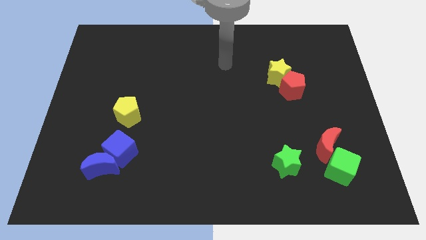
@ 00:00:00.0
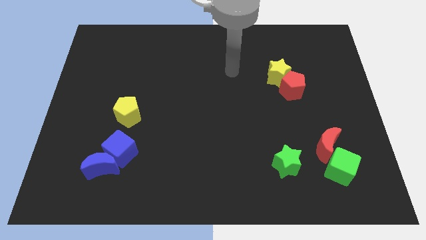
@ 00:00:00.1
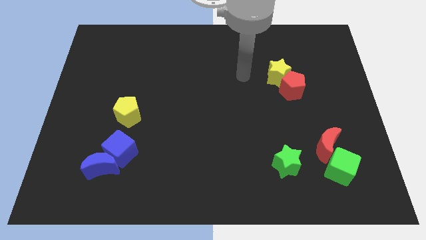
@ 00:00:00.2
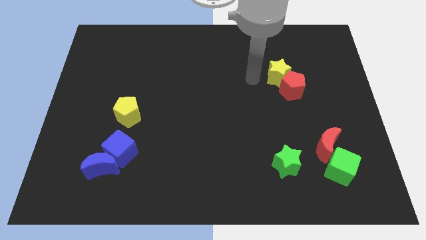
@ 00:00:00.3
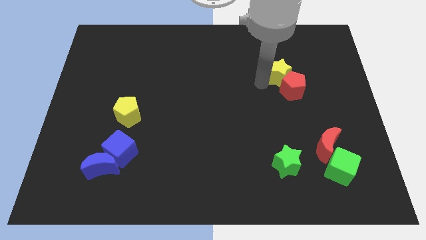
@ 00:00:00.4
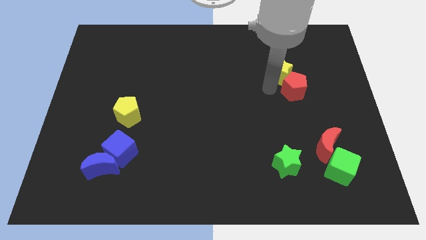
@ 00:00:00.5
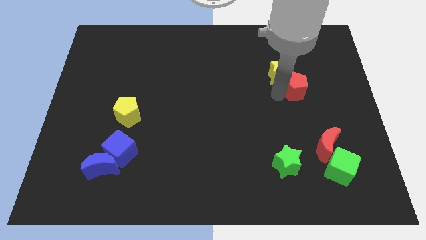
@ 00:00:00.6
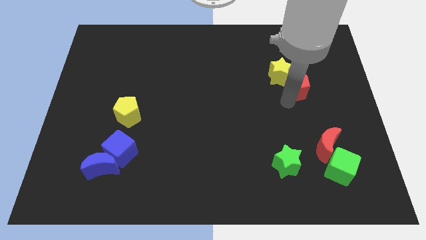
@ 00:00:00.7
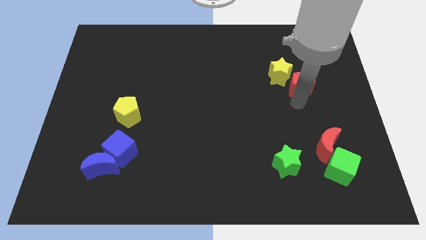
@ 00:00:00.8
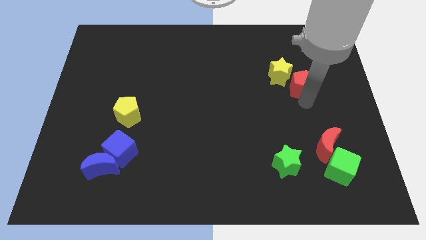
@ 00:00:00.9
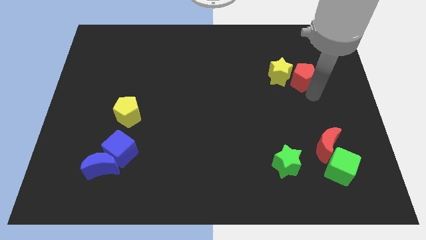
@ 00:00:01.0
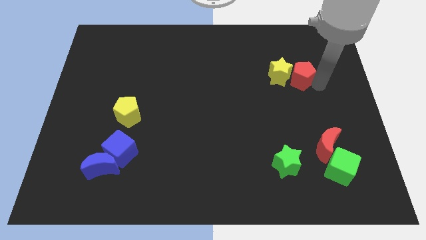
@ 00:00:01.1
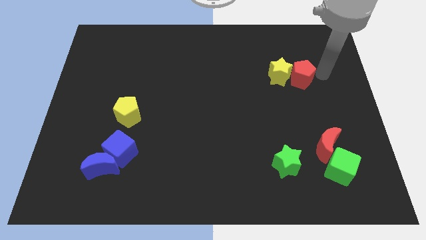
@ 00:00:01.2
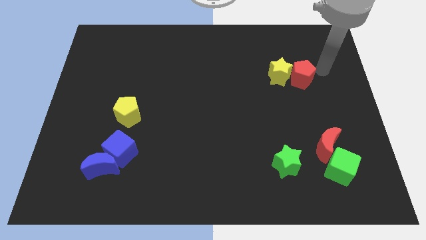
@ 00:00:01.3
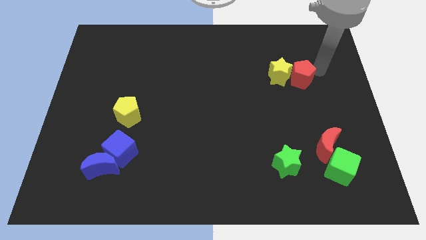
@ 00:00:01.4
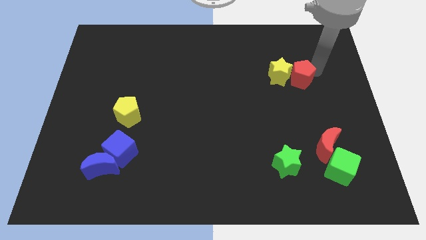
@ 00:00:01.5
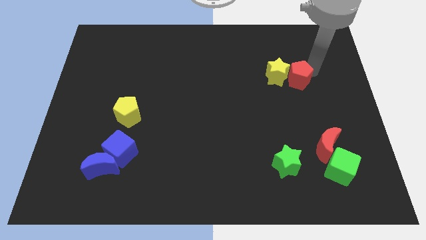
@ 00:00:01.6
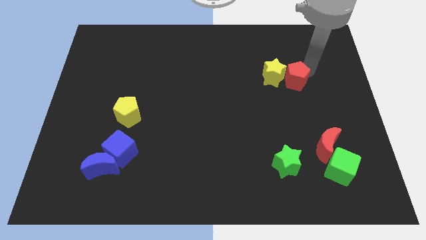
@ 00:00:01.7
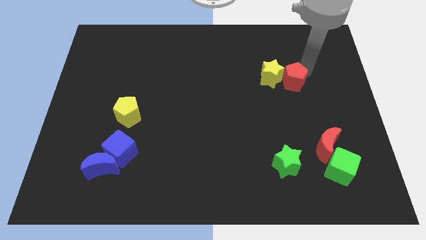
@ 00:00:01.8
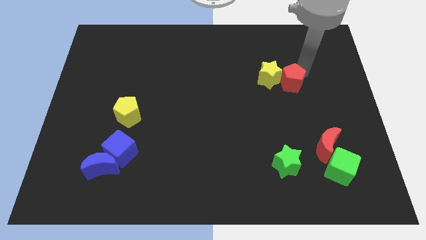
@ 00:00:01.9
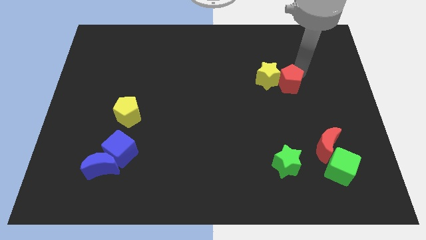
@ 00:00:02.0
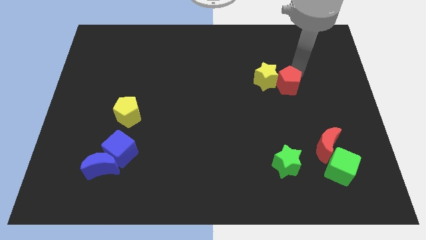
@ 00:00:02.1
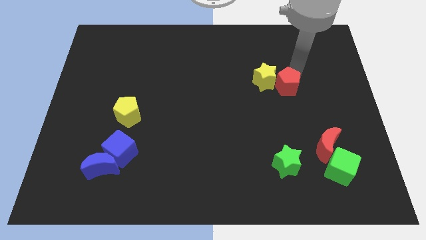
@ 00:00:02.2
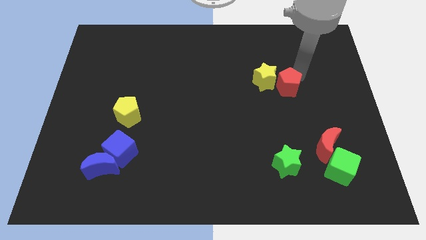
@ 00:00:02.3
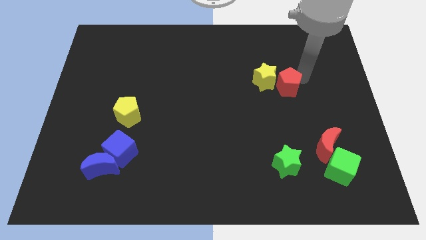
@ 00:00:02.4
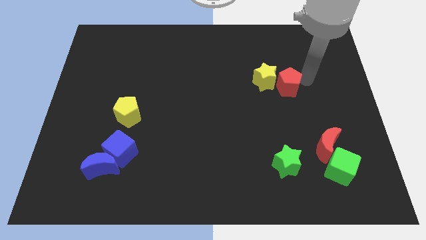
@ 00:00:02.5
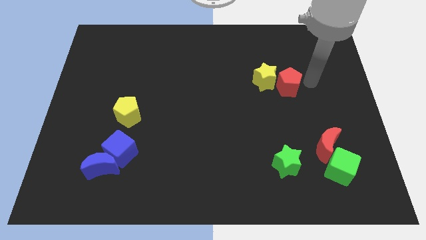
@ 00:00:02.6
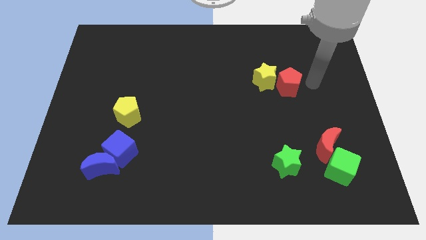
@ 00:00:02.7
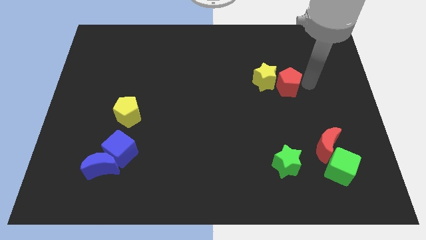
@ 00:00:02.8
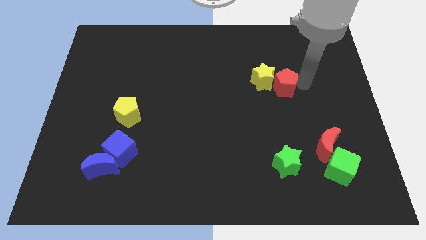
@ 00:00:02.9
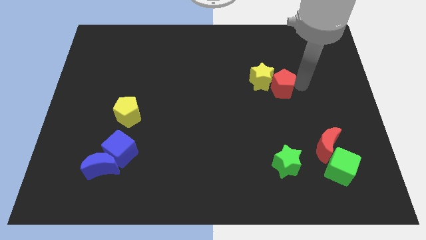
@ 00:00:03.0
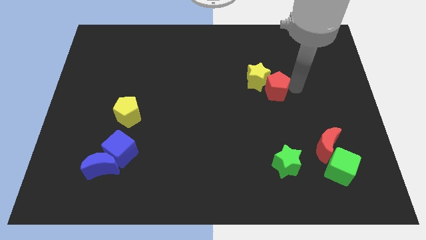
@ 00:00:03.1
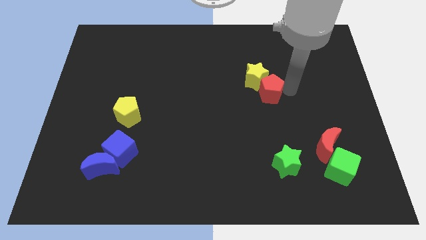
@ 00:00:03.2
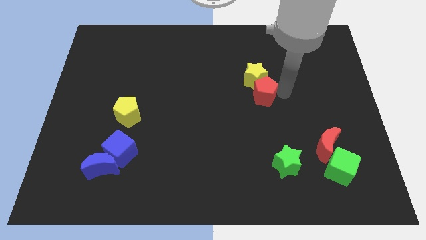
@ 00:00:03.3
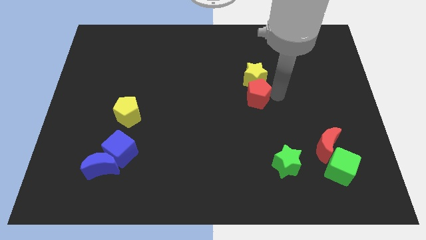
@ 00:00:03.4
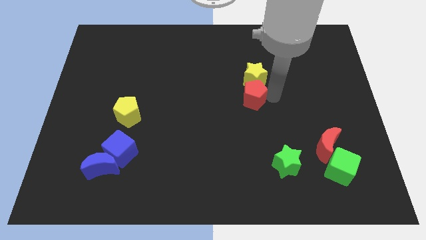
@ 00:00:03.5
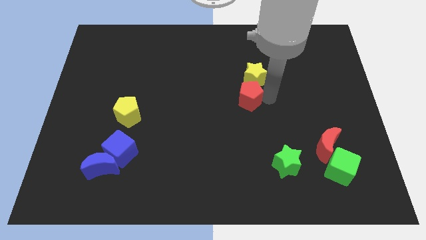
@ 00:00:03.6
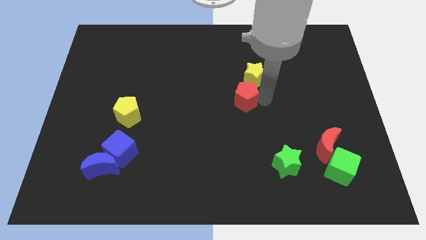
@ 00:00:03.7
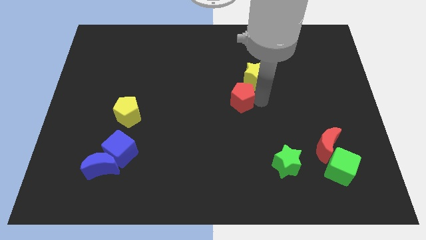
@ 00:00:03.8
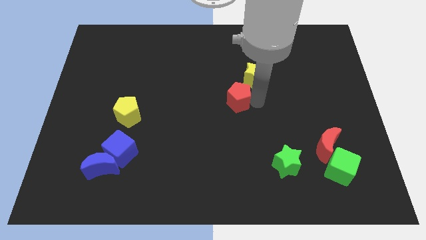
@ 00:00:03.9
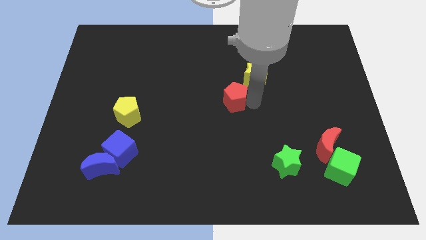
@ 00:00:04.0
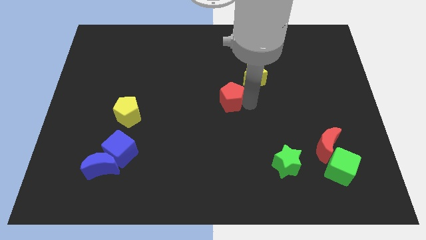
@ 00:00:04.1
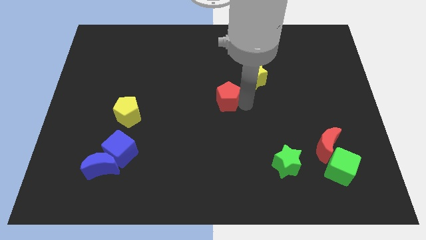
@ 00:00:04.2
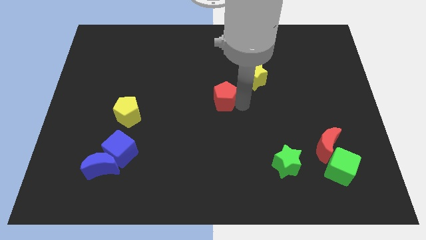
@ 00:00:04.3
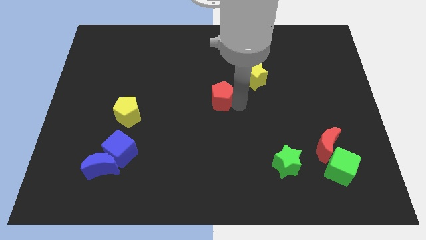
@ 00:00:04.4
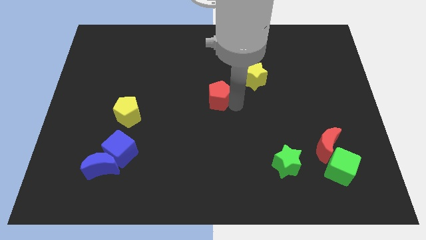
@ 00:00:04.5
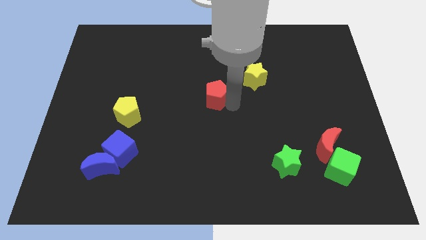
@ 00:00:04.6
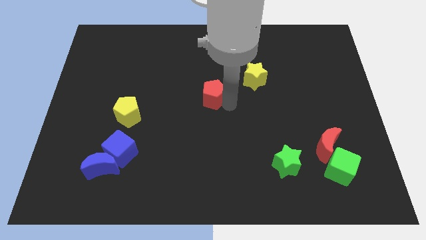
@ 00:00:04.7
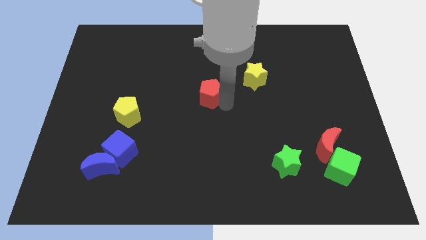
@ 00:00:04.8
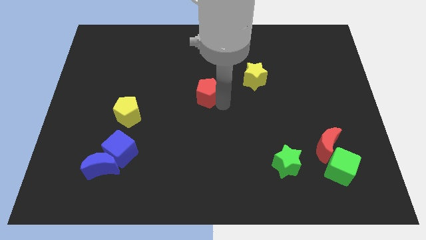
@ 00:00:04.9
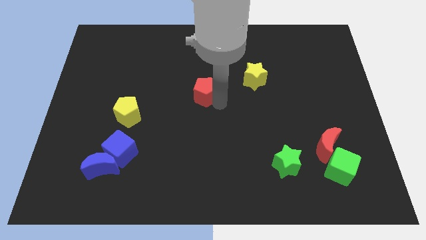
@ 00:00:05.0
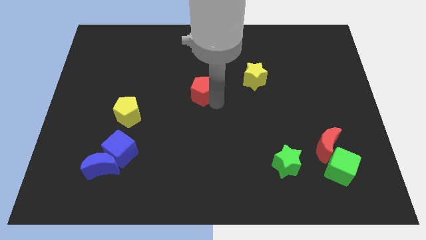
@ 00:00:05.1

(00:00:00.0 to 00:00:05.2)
put the red pentagon just left of the yellow star
